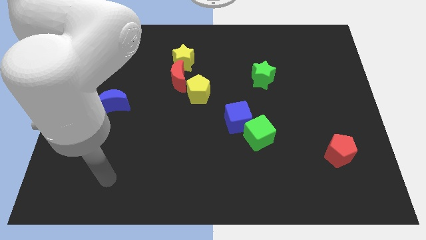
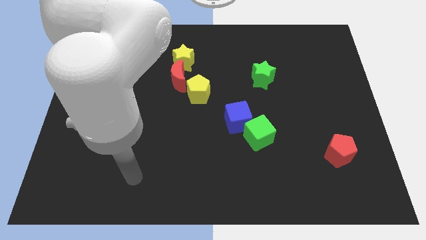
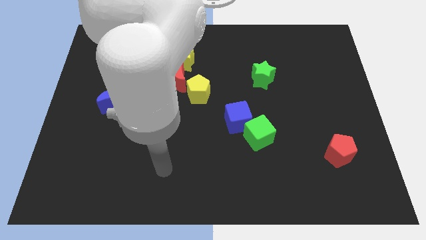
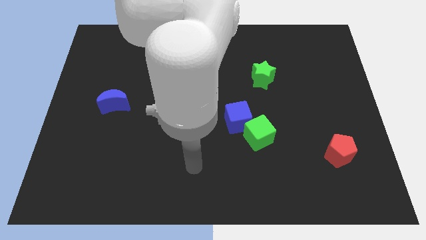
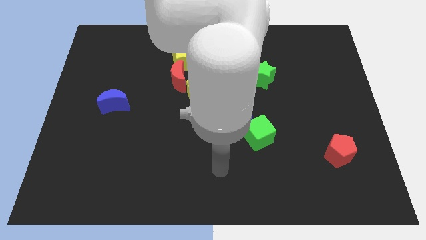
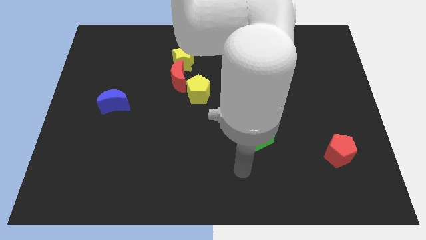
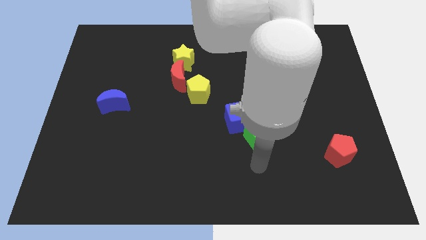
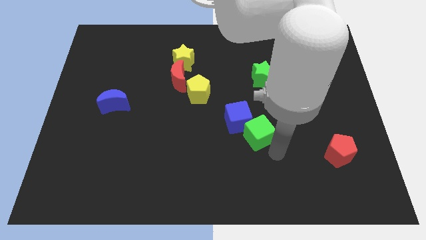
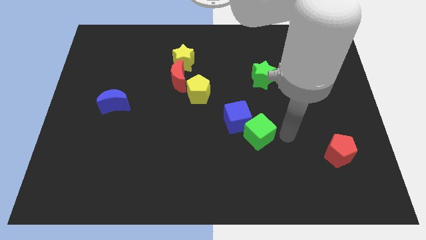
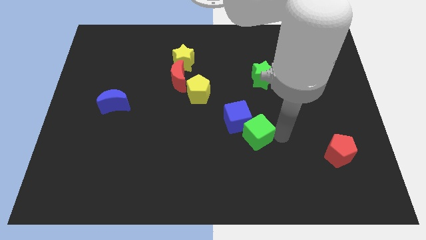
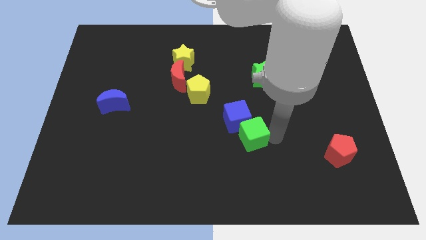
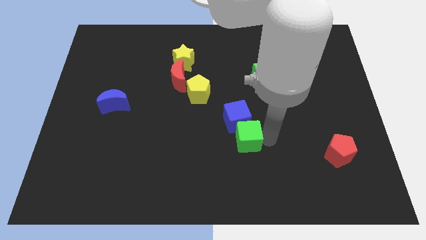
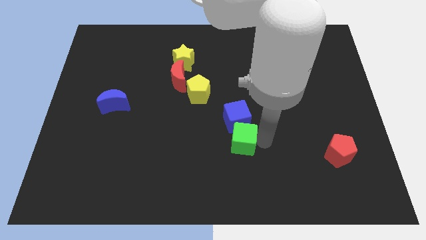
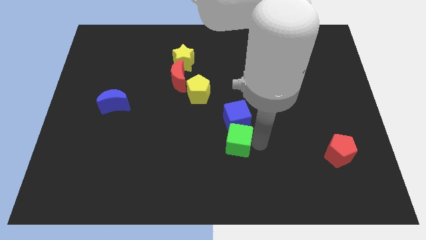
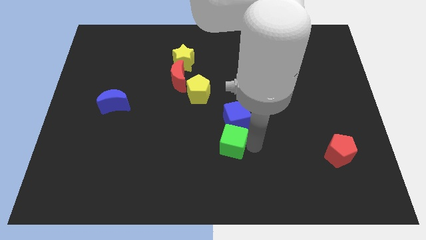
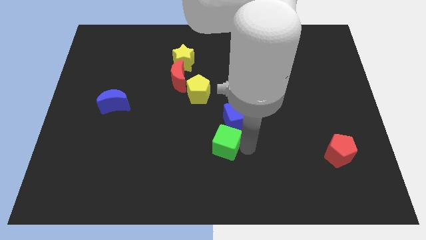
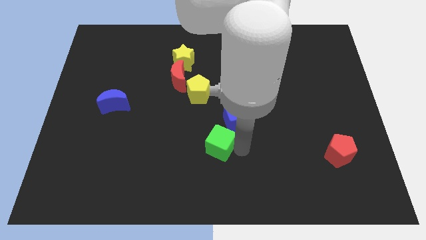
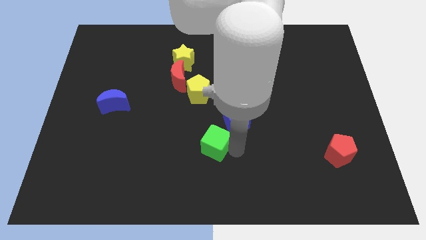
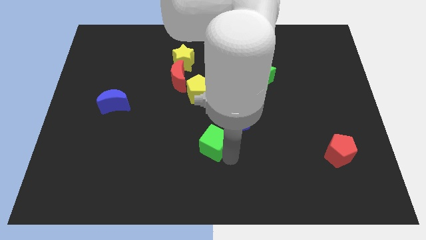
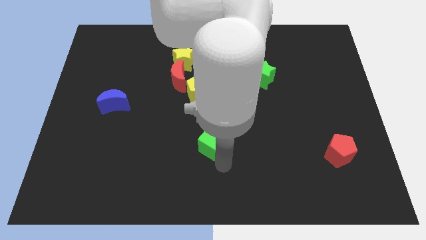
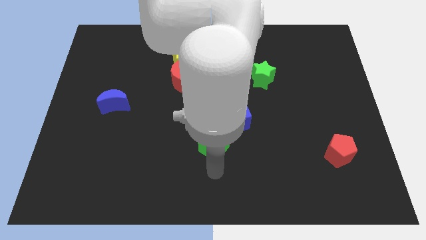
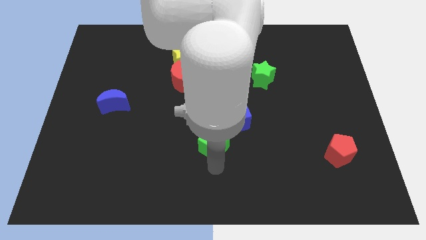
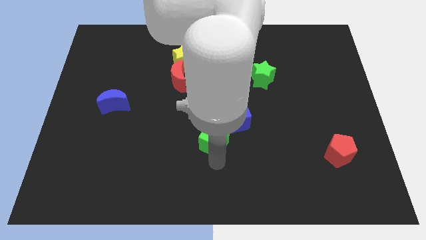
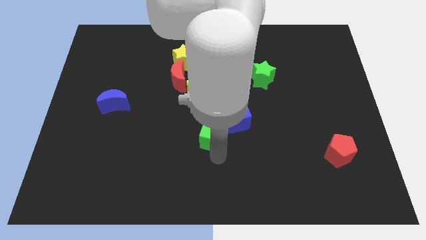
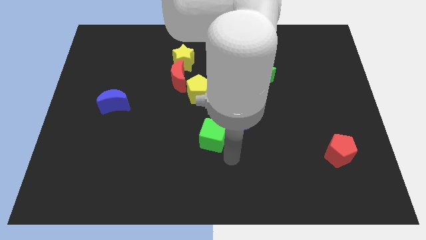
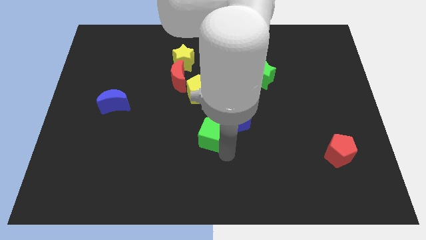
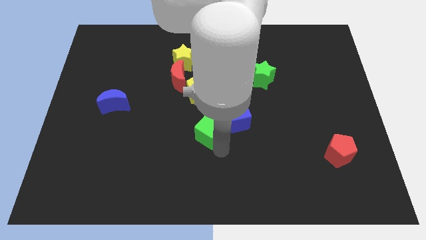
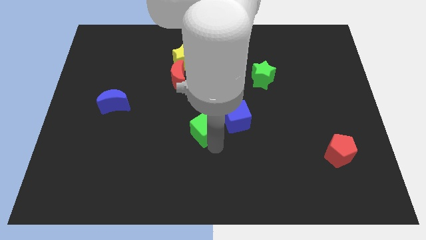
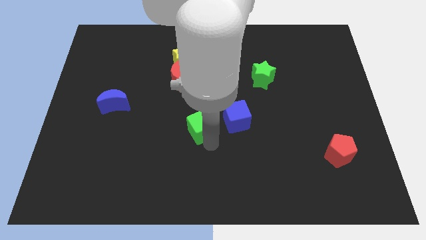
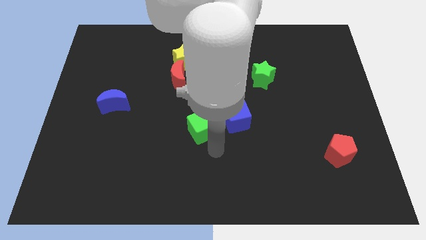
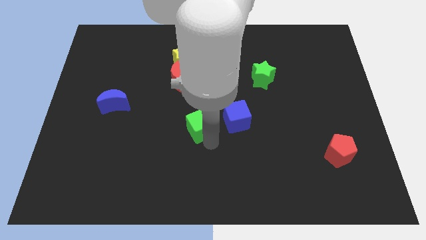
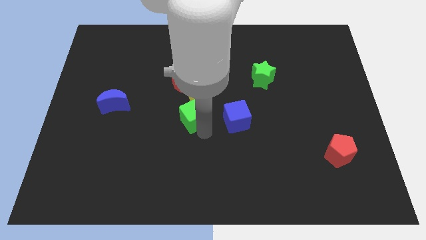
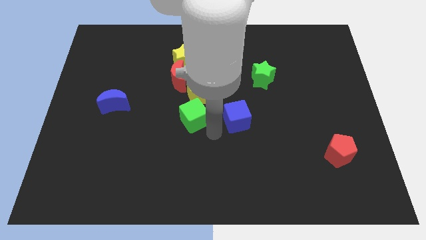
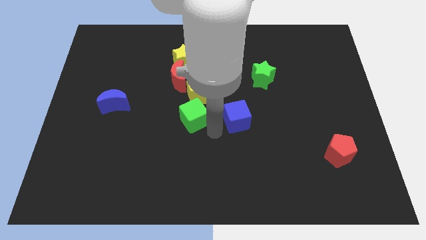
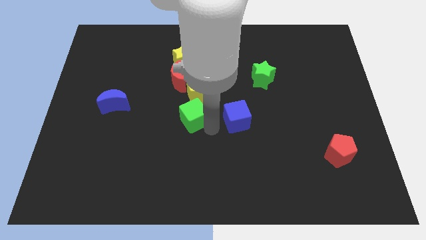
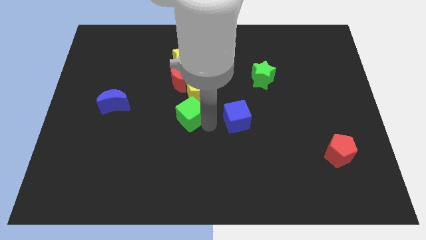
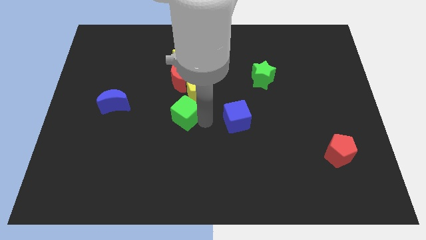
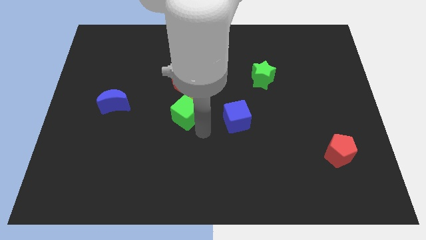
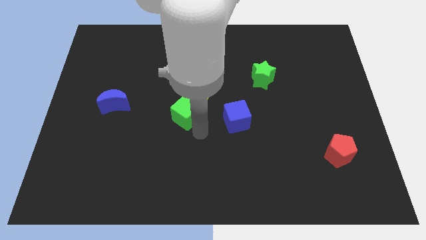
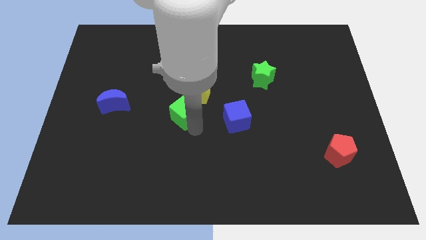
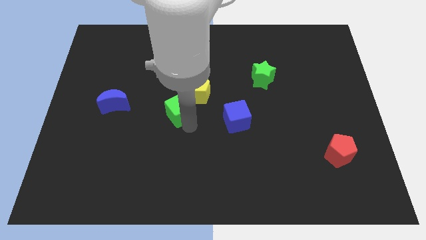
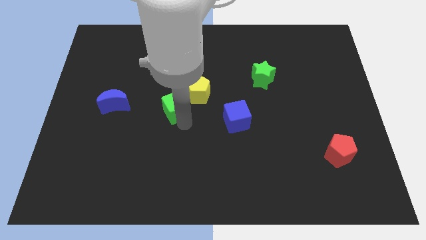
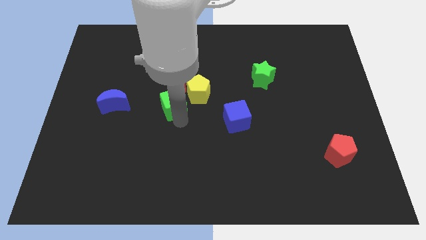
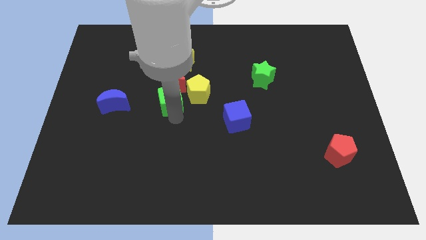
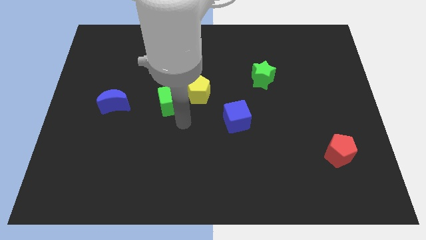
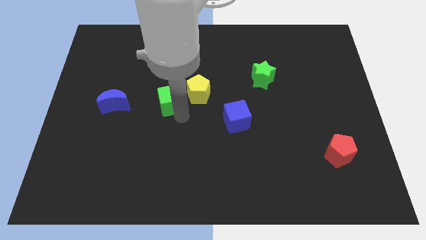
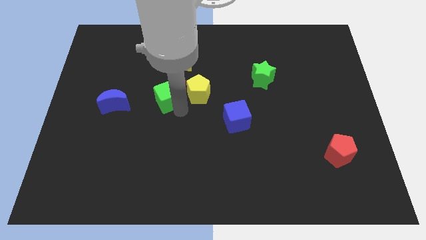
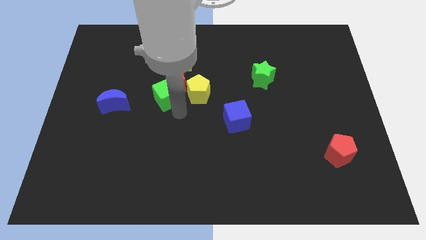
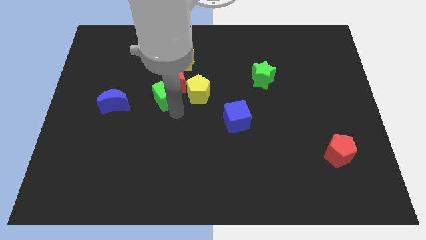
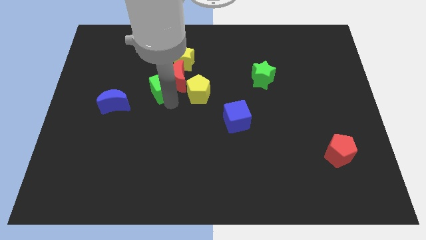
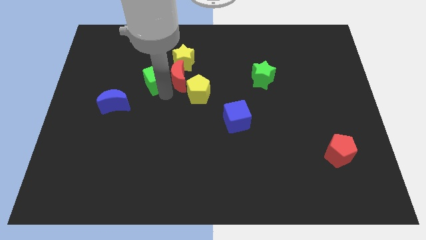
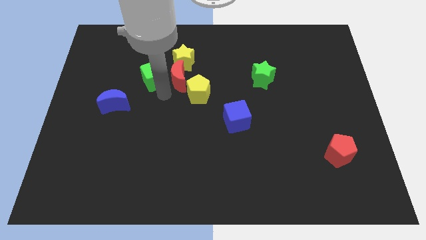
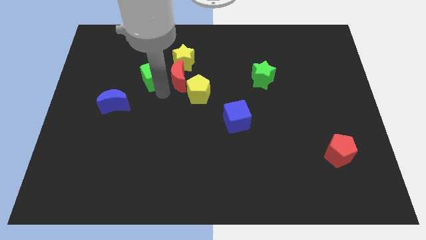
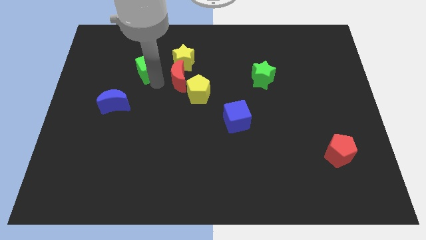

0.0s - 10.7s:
put the green cube left of the yellow star

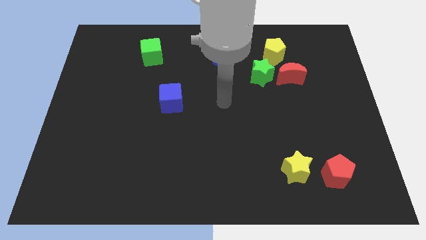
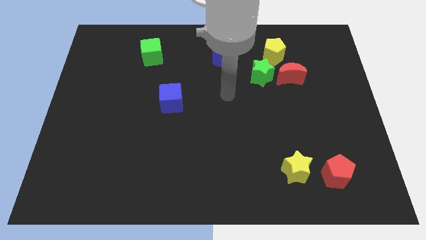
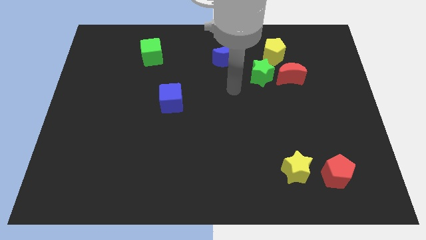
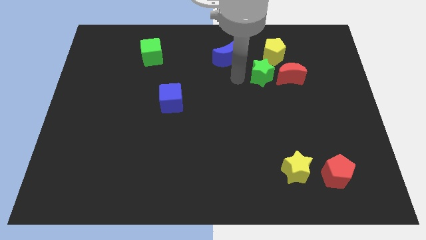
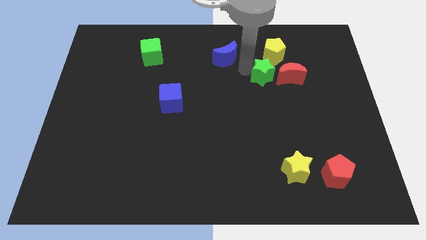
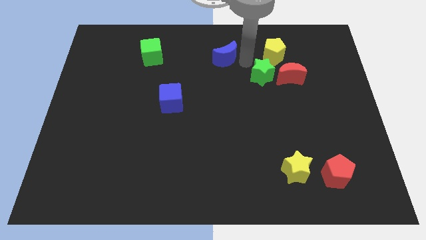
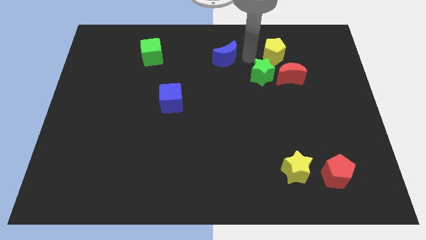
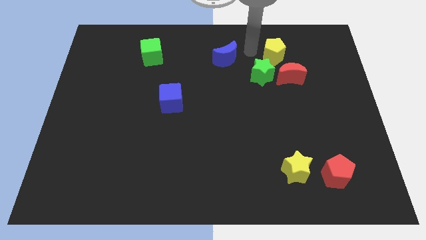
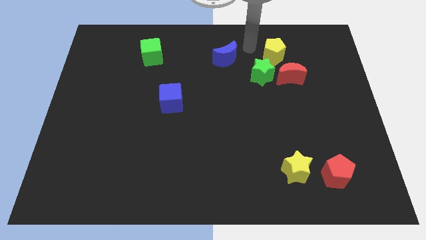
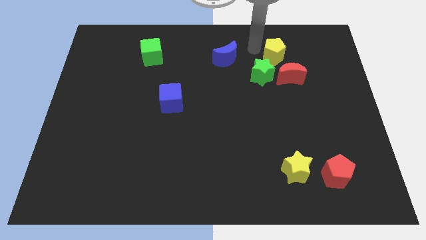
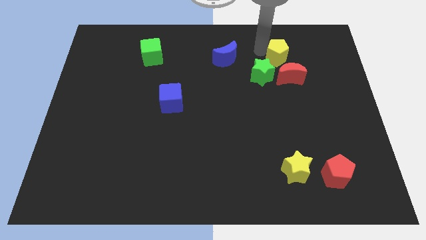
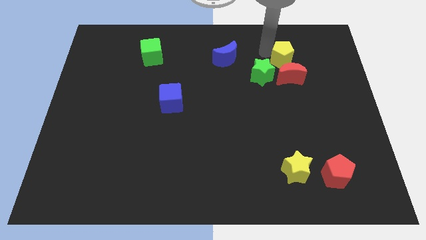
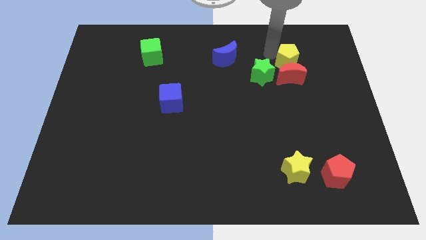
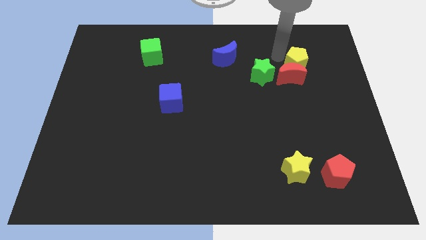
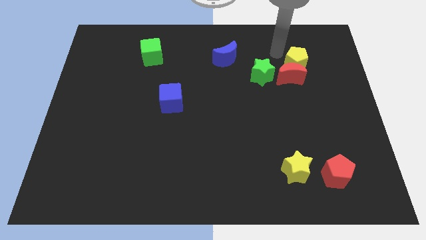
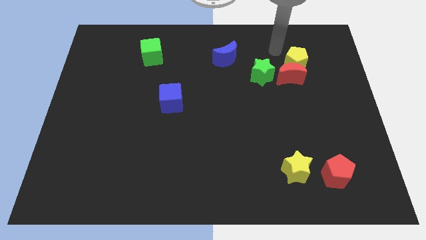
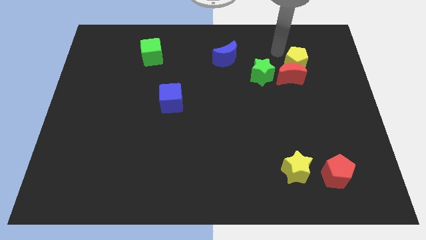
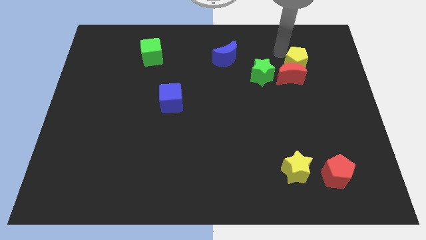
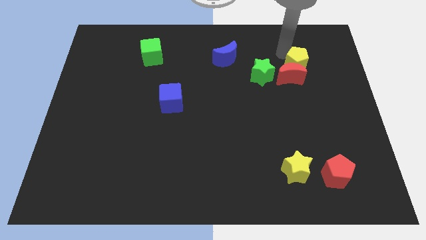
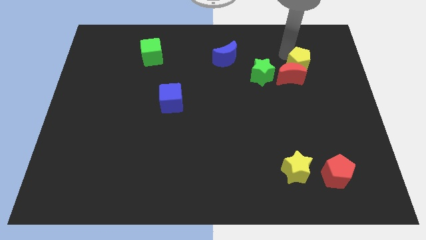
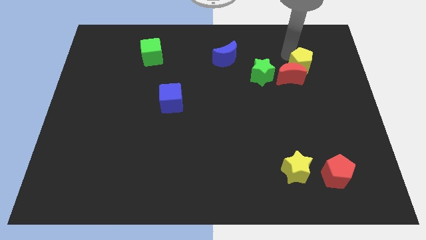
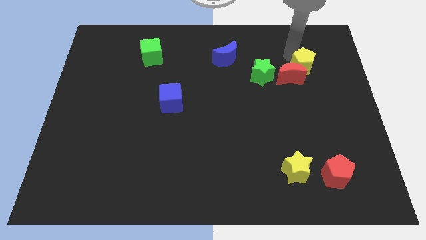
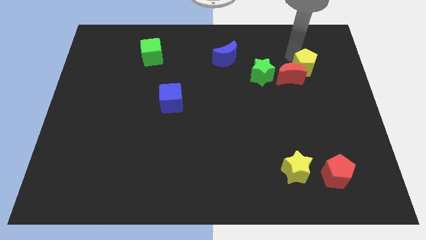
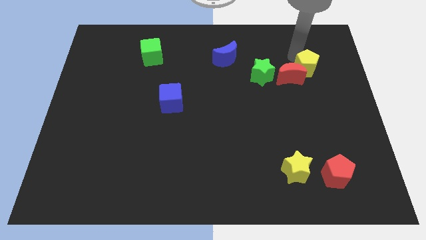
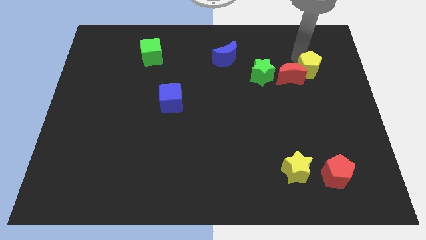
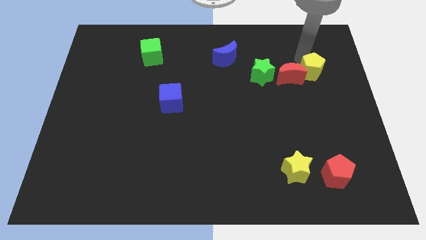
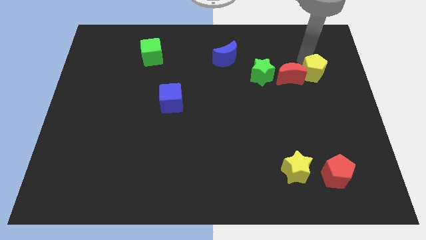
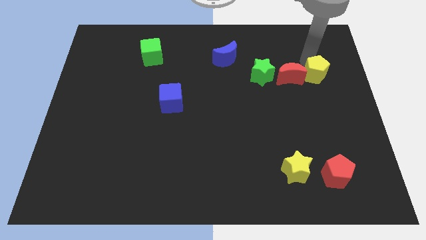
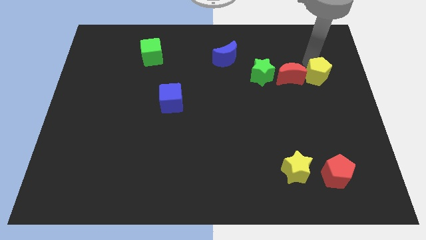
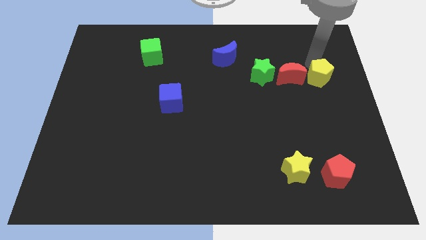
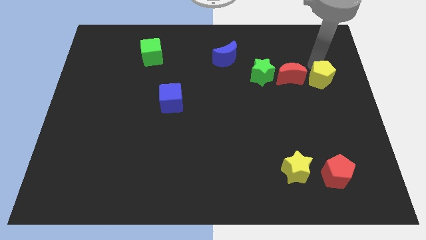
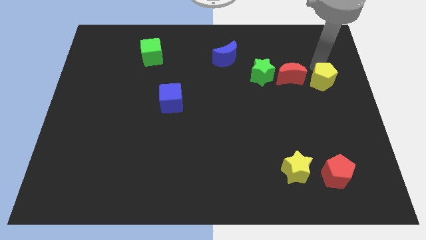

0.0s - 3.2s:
slide the yellow pentagon diagonally down and to the right of the red moon
